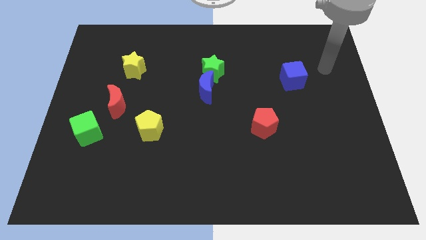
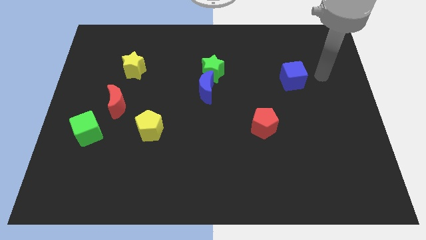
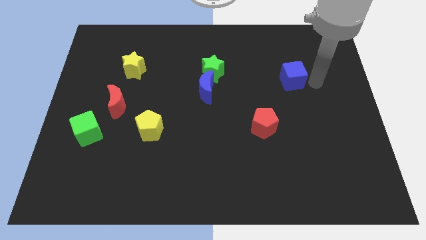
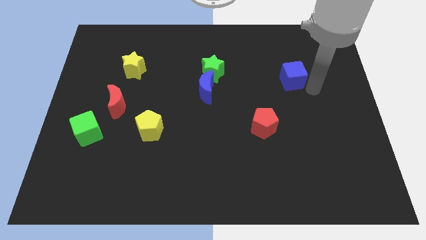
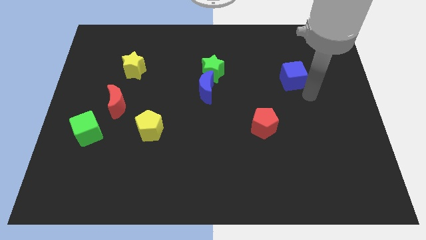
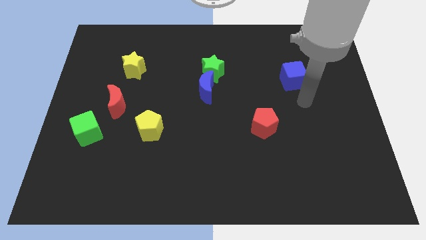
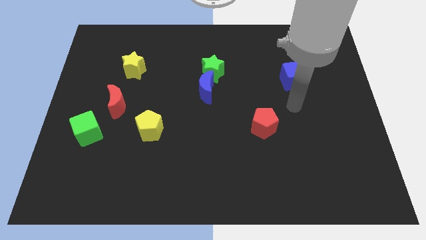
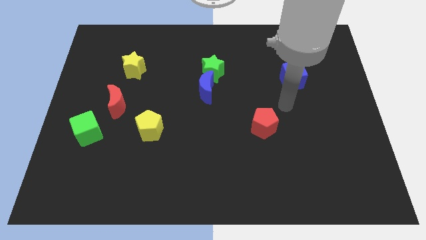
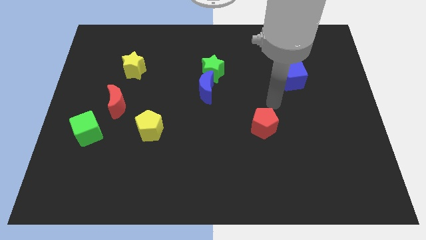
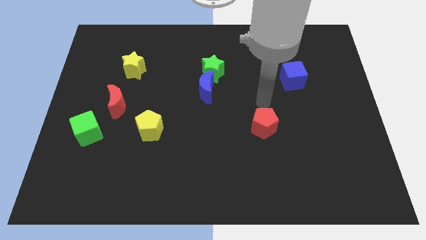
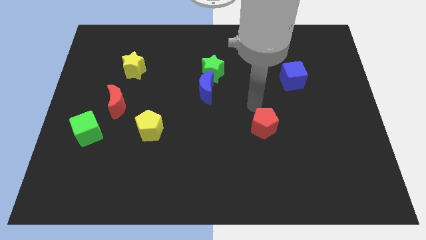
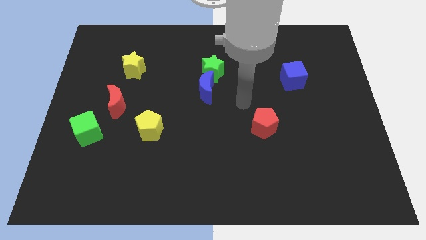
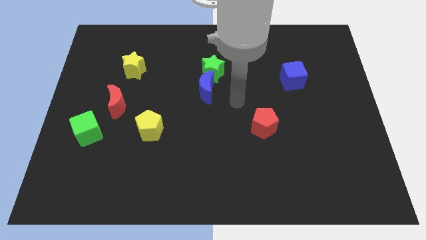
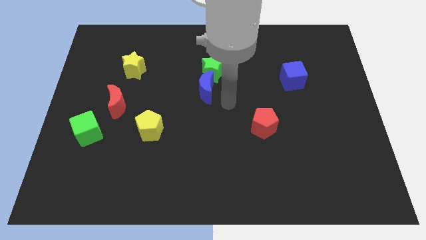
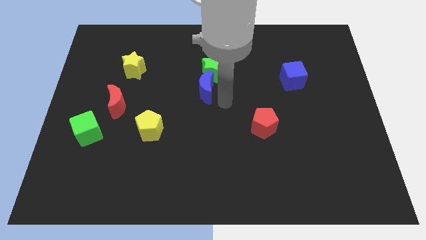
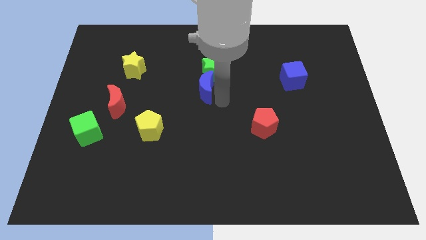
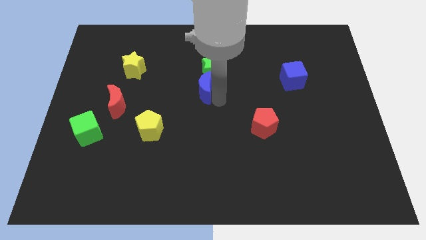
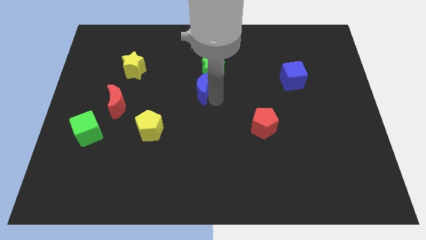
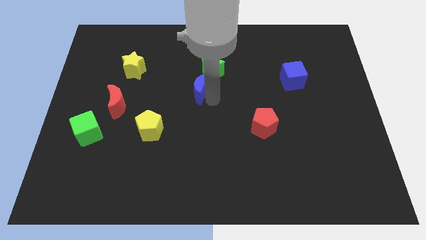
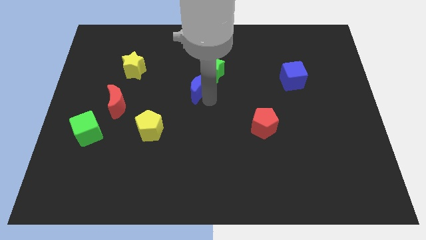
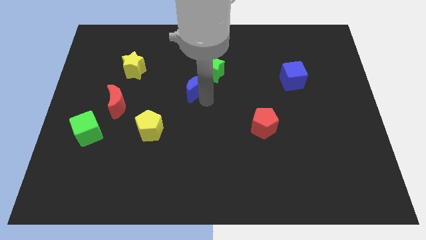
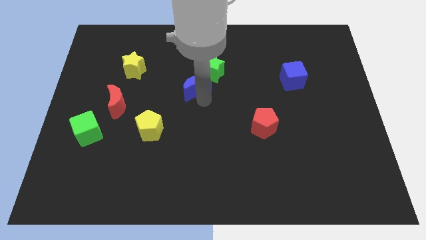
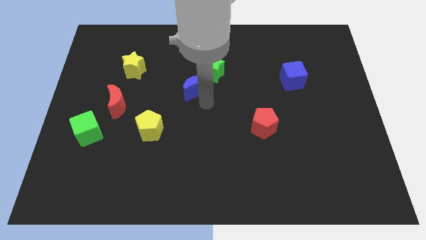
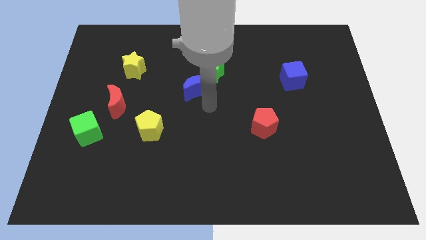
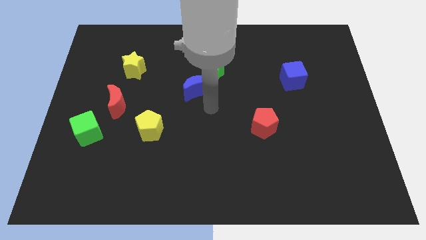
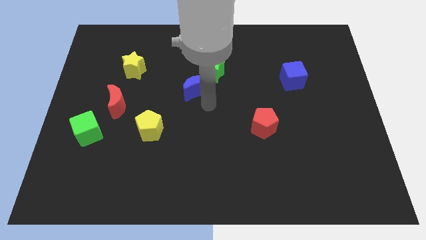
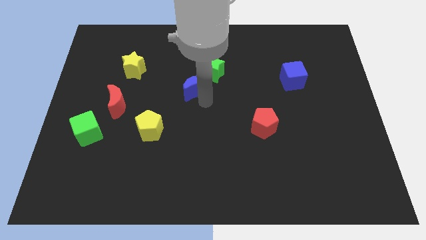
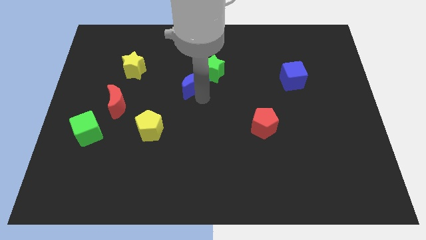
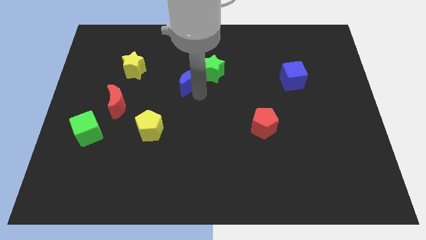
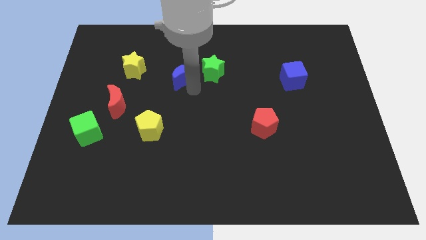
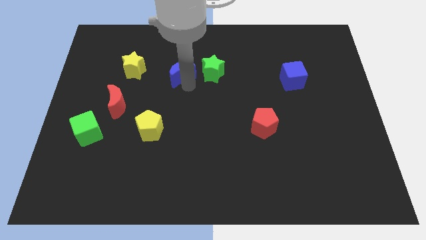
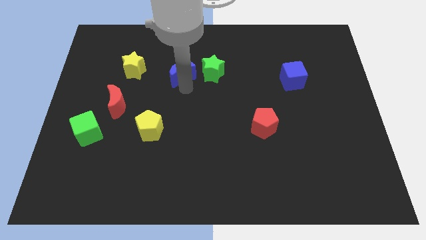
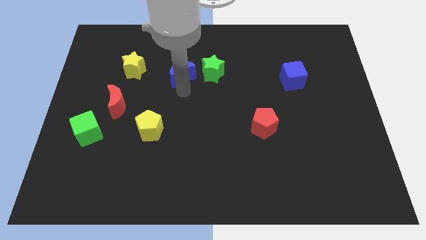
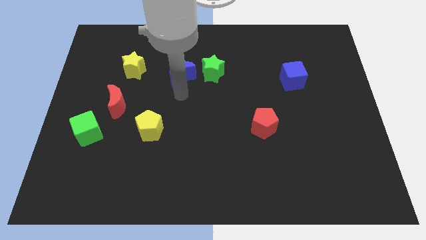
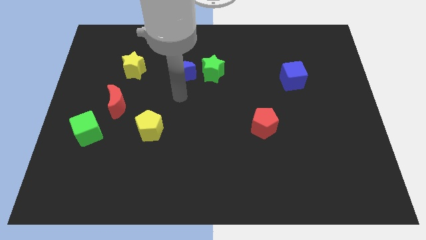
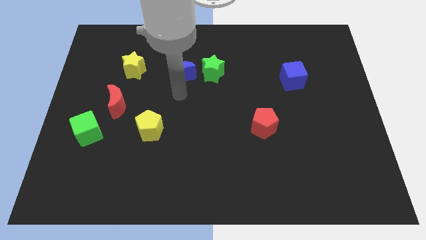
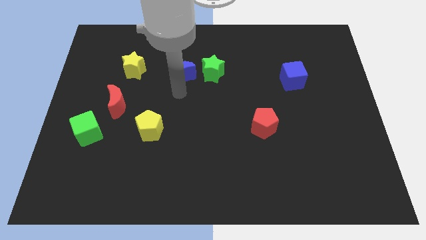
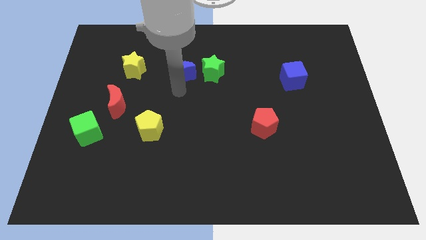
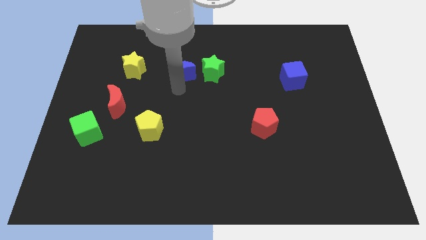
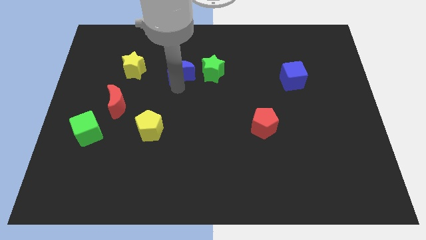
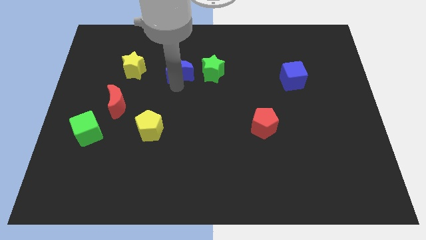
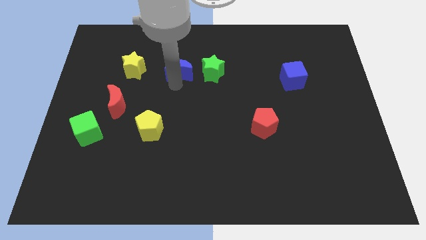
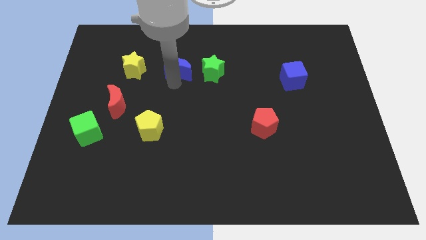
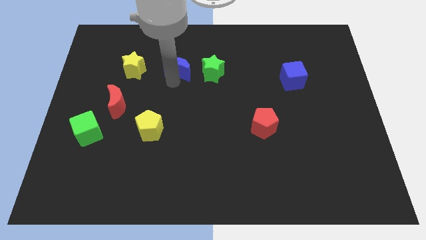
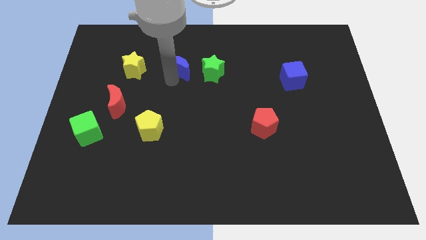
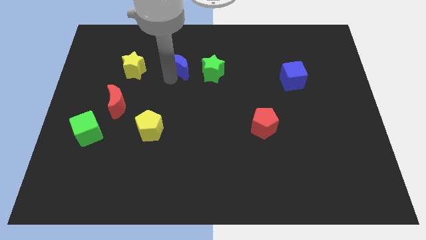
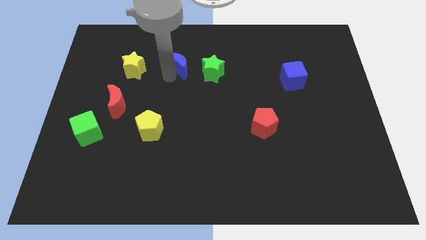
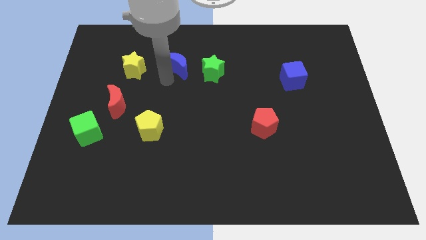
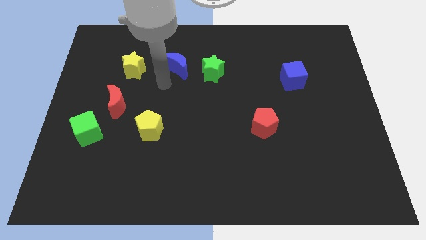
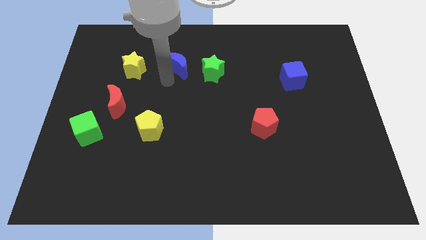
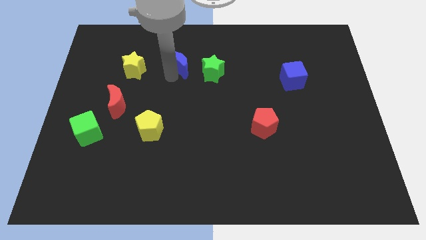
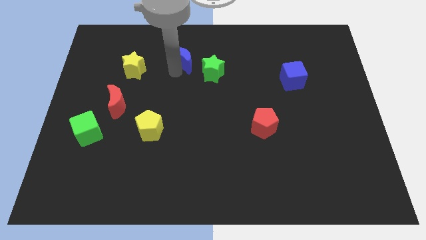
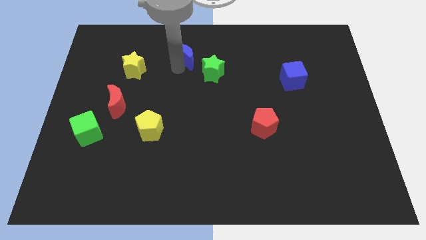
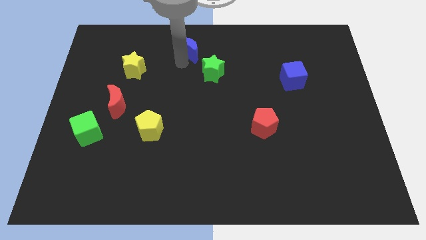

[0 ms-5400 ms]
push the blue moon to the top side
